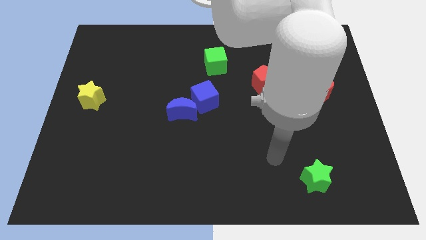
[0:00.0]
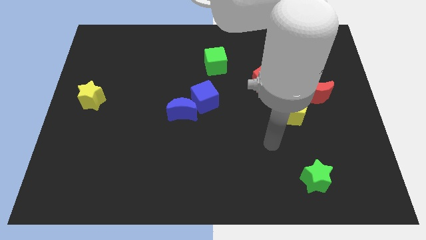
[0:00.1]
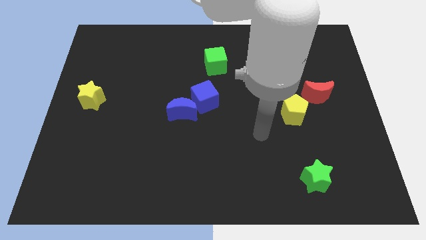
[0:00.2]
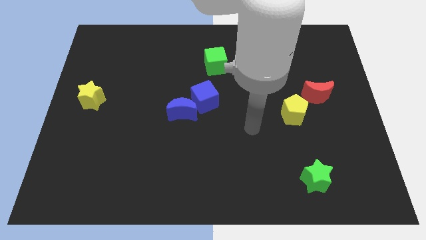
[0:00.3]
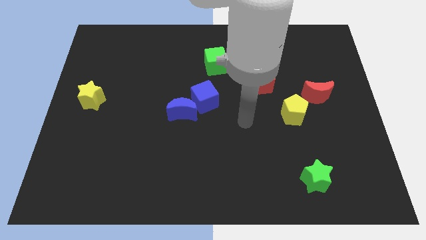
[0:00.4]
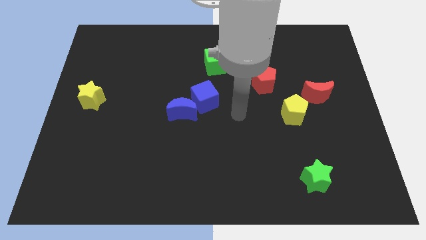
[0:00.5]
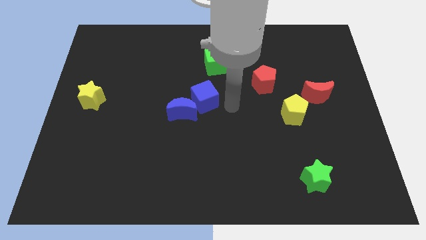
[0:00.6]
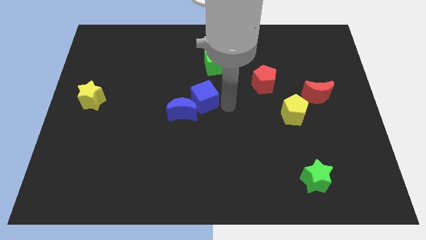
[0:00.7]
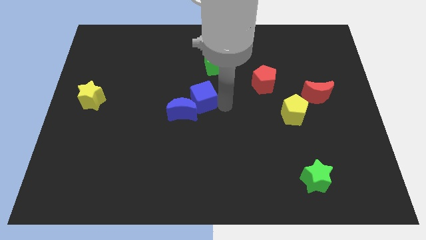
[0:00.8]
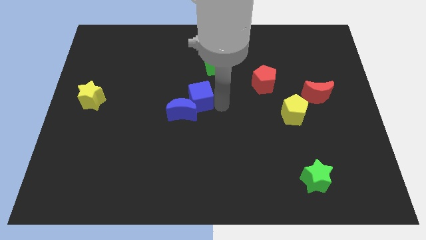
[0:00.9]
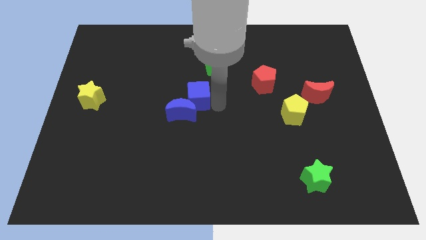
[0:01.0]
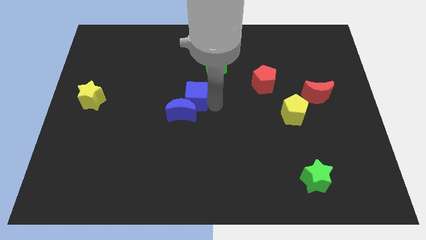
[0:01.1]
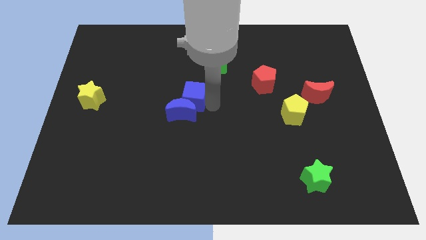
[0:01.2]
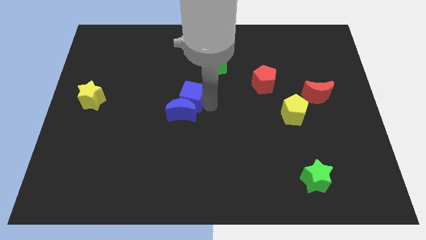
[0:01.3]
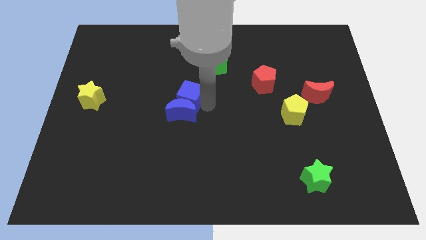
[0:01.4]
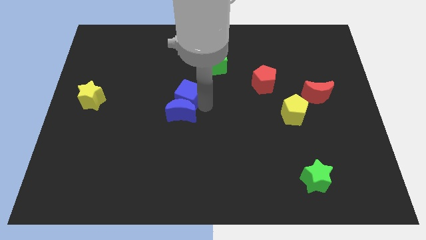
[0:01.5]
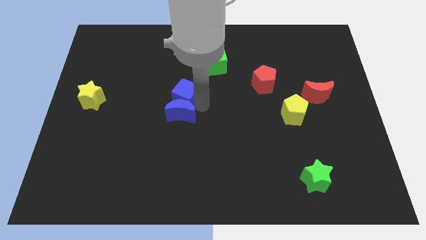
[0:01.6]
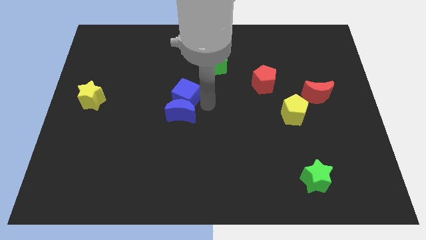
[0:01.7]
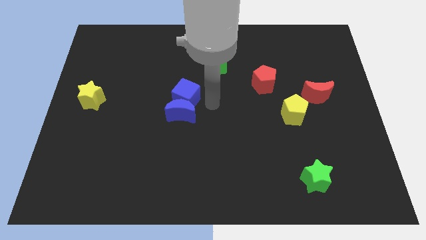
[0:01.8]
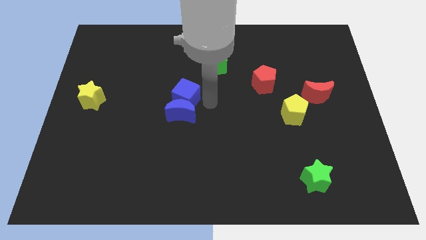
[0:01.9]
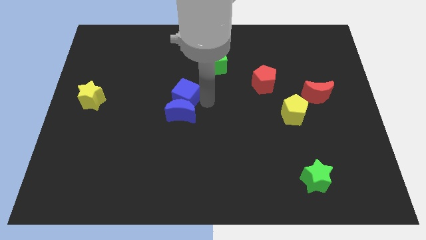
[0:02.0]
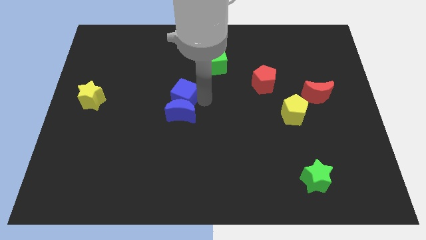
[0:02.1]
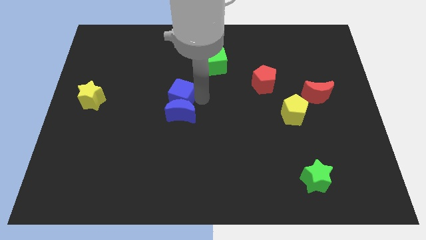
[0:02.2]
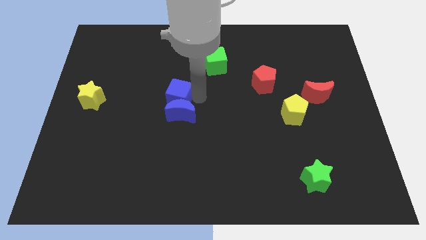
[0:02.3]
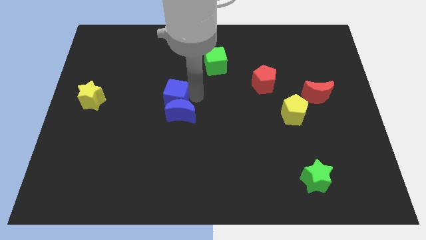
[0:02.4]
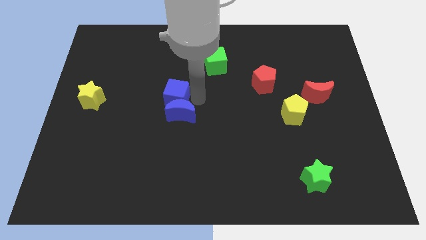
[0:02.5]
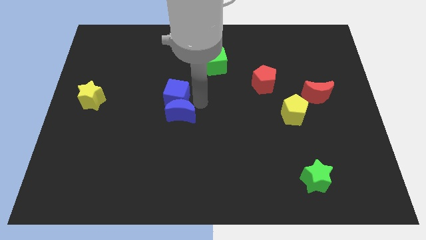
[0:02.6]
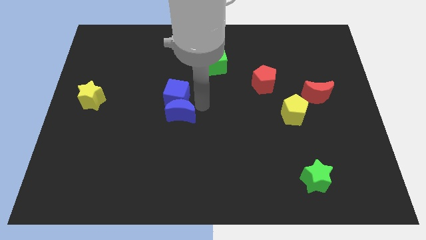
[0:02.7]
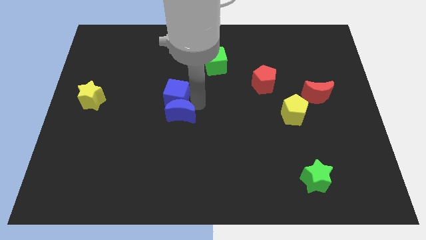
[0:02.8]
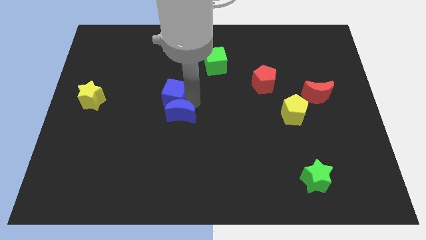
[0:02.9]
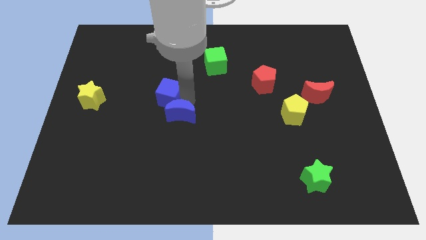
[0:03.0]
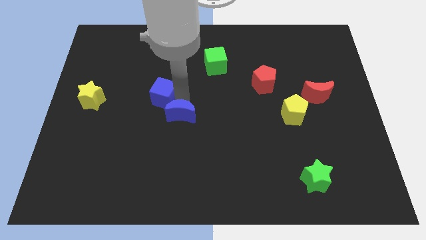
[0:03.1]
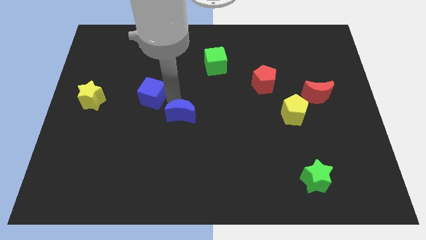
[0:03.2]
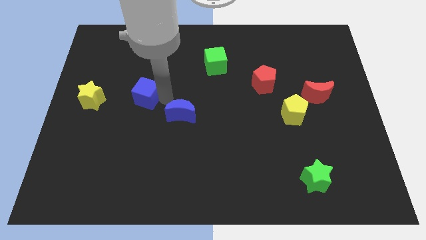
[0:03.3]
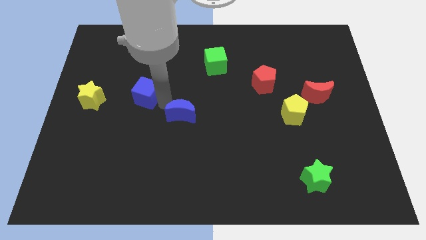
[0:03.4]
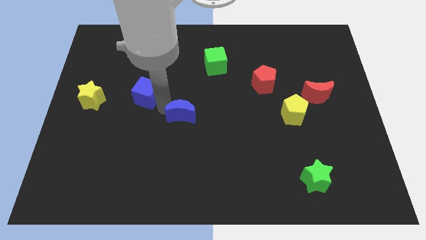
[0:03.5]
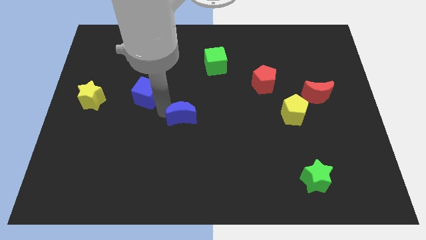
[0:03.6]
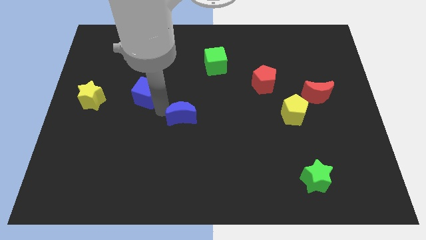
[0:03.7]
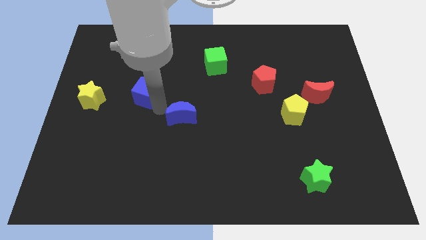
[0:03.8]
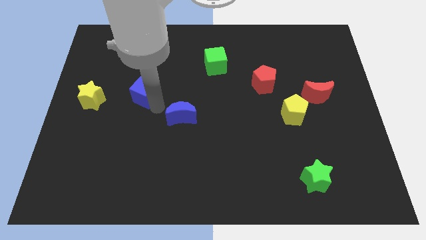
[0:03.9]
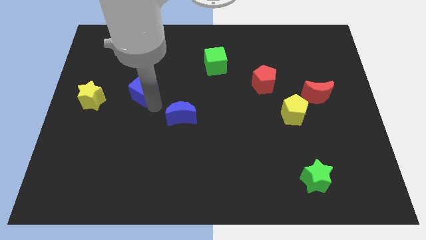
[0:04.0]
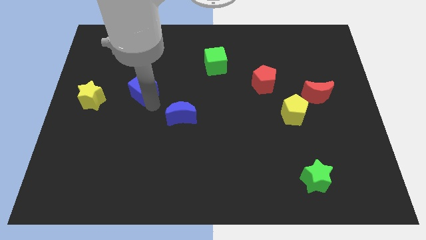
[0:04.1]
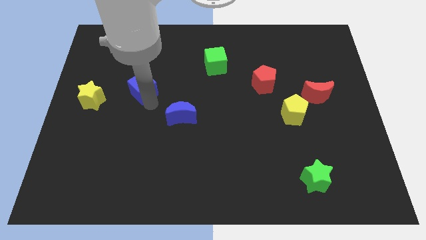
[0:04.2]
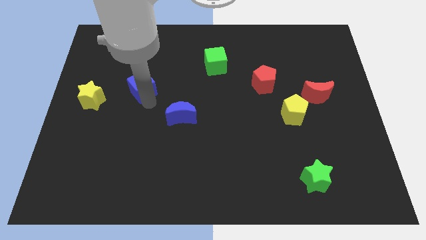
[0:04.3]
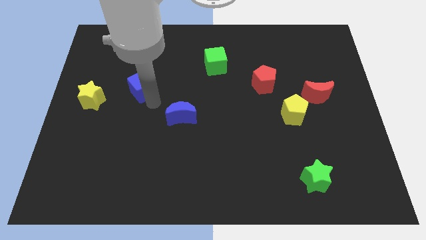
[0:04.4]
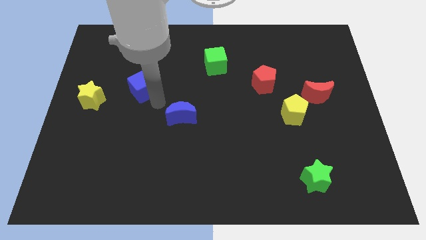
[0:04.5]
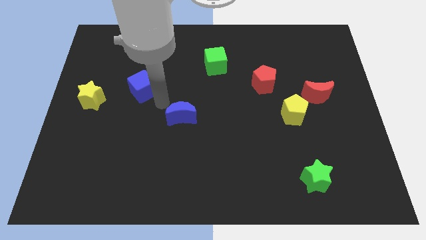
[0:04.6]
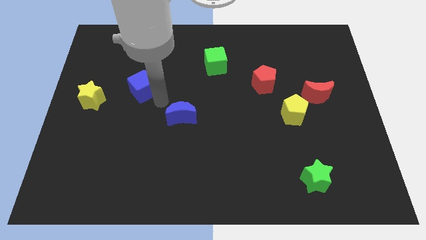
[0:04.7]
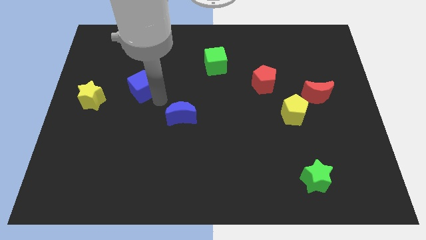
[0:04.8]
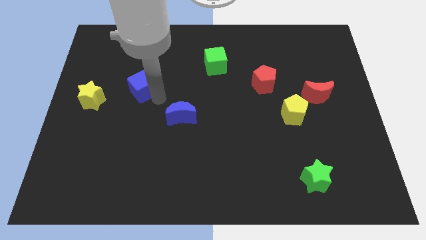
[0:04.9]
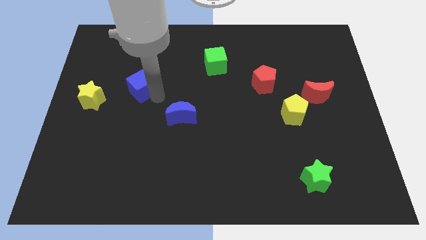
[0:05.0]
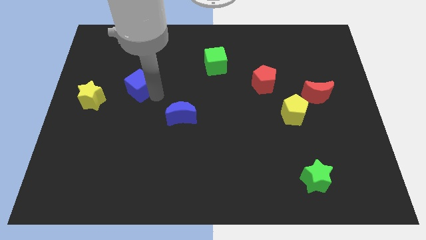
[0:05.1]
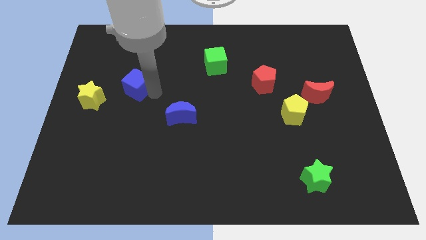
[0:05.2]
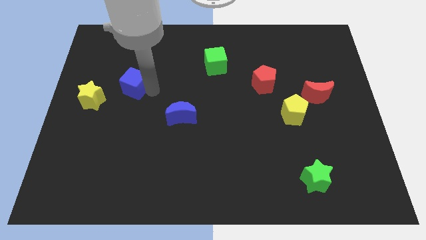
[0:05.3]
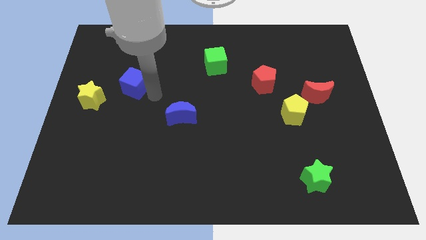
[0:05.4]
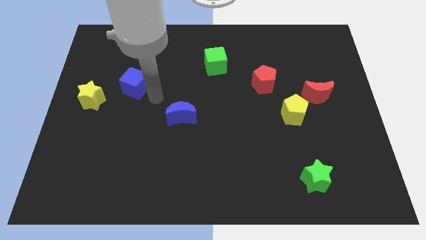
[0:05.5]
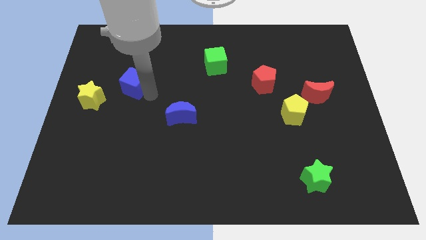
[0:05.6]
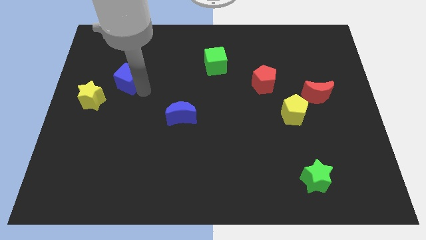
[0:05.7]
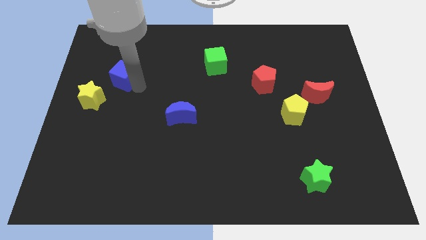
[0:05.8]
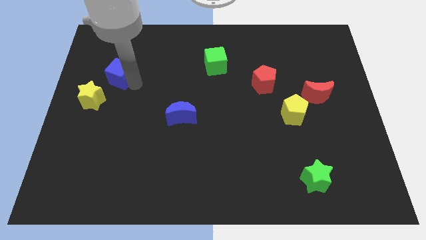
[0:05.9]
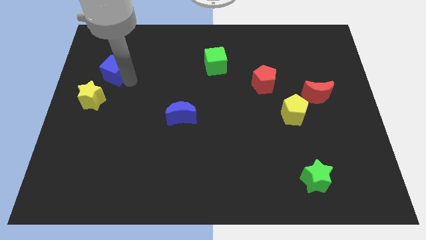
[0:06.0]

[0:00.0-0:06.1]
put the blue cube to the top side of the yellow star

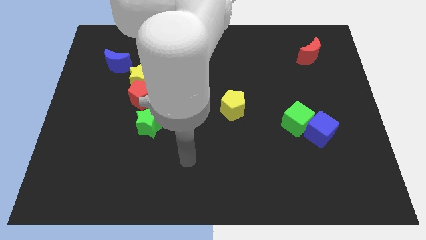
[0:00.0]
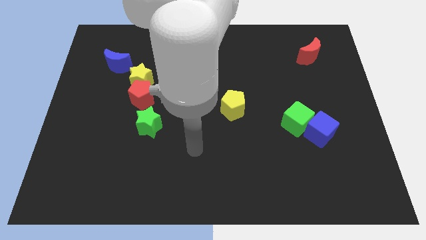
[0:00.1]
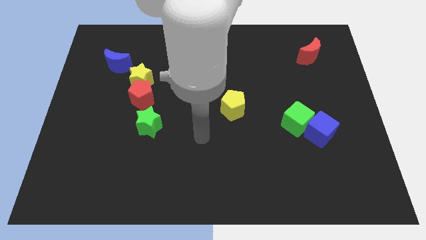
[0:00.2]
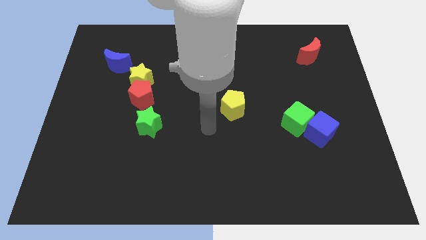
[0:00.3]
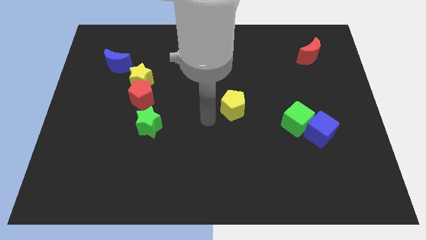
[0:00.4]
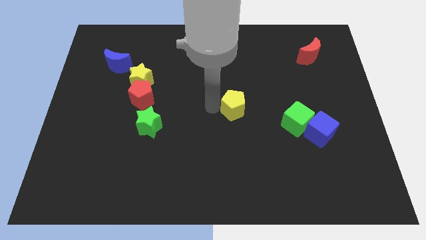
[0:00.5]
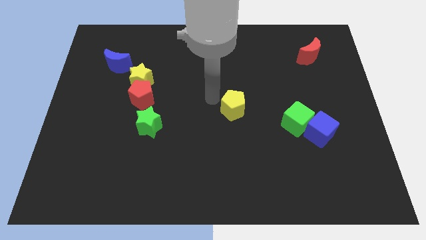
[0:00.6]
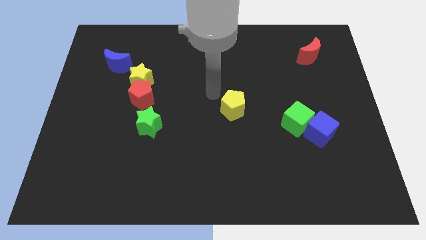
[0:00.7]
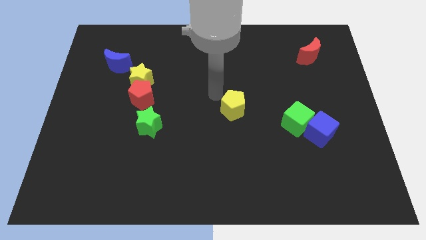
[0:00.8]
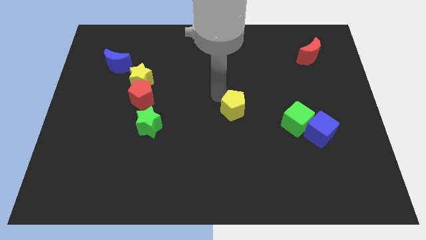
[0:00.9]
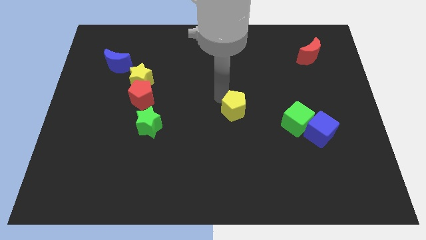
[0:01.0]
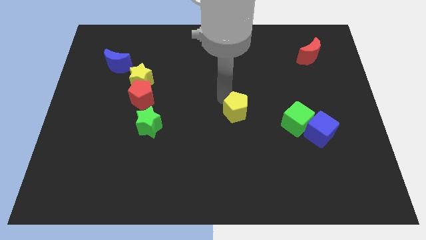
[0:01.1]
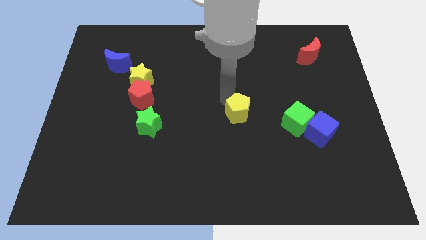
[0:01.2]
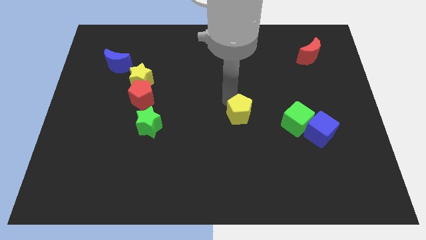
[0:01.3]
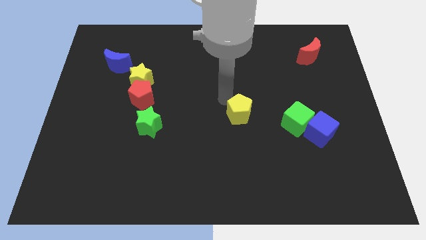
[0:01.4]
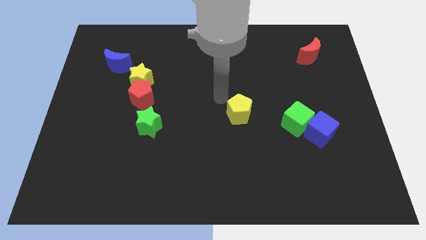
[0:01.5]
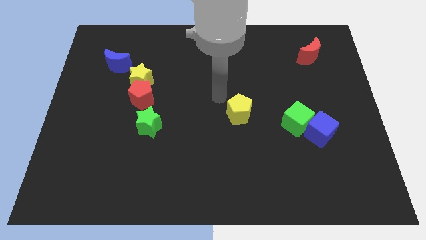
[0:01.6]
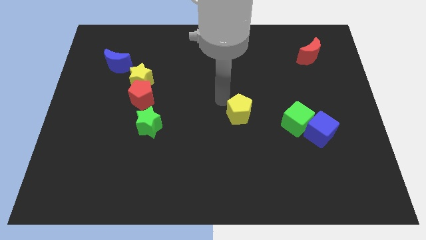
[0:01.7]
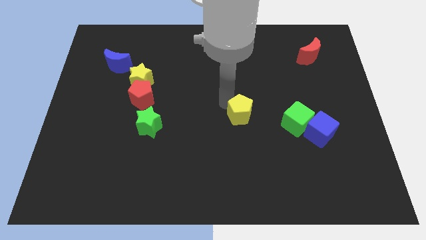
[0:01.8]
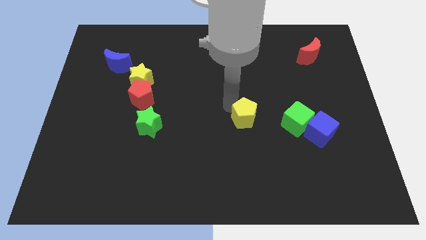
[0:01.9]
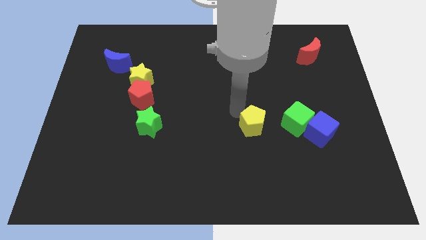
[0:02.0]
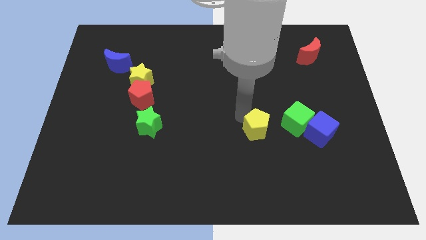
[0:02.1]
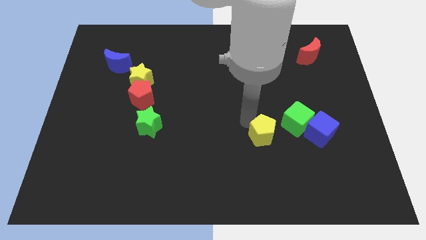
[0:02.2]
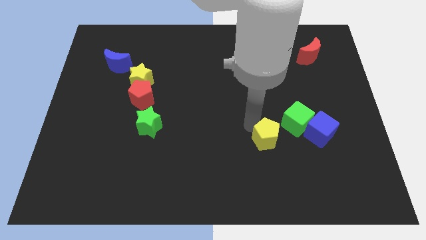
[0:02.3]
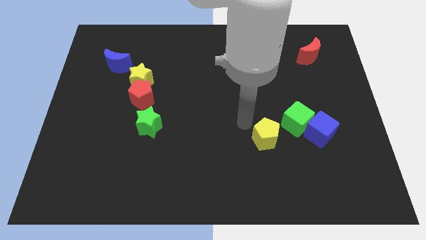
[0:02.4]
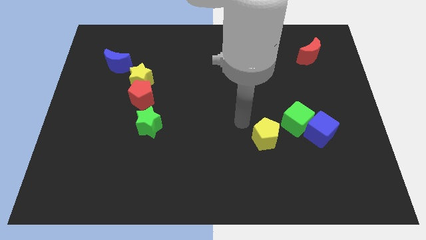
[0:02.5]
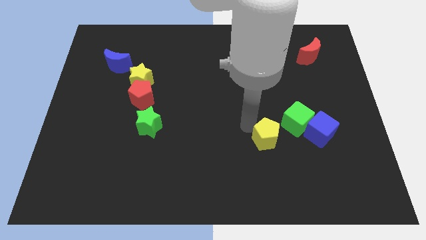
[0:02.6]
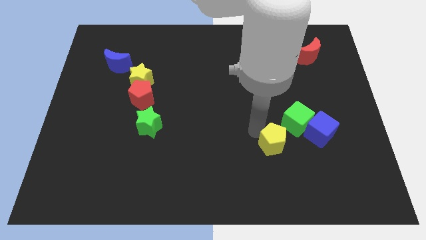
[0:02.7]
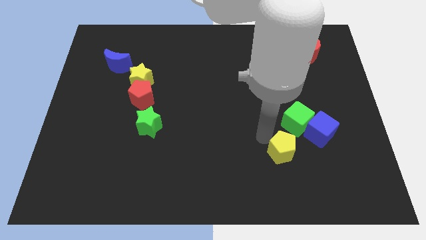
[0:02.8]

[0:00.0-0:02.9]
move the yellow pentagon to the bottom of the green cube
